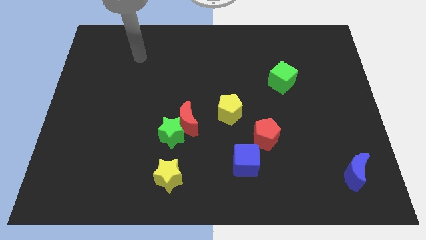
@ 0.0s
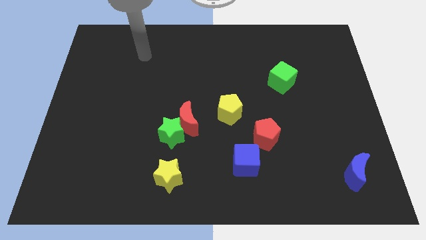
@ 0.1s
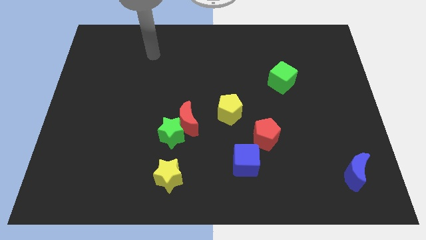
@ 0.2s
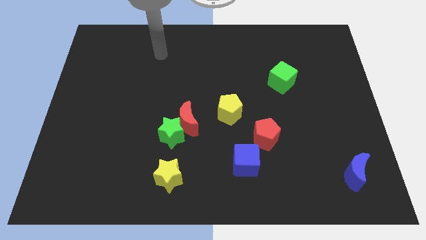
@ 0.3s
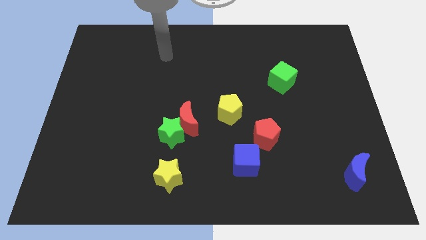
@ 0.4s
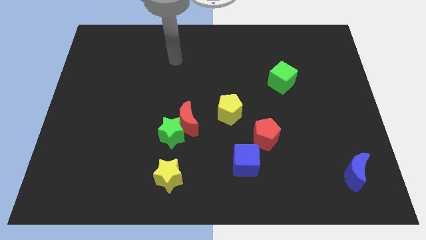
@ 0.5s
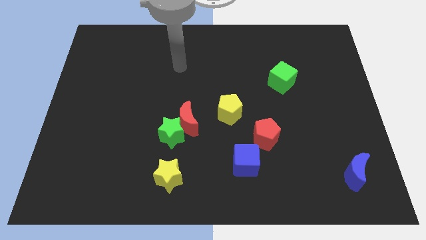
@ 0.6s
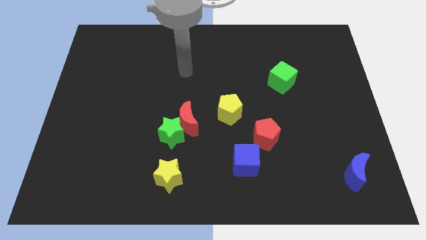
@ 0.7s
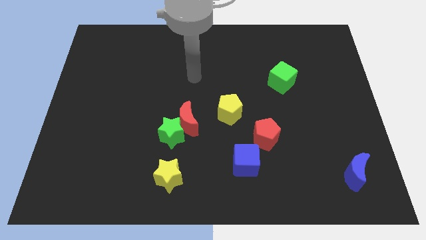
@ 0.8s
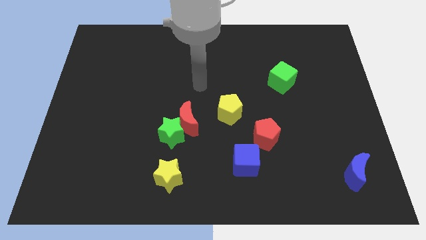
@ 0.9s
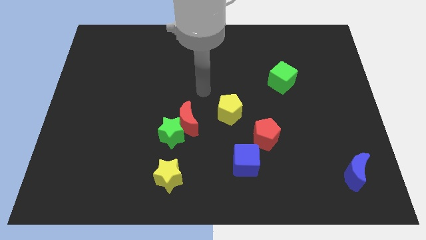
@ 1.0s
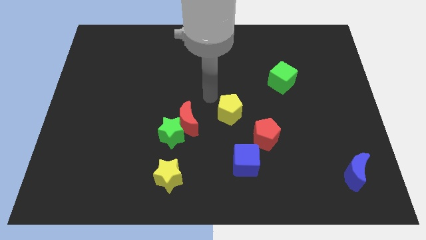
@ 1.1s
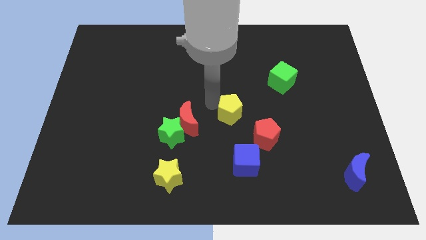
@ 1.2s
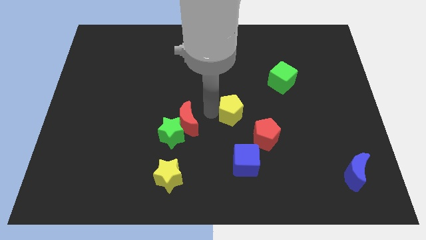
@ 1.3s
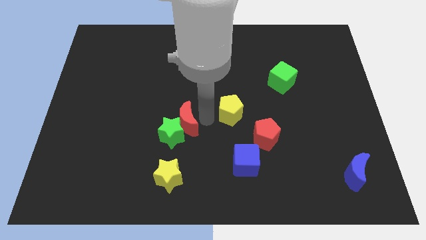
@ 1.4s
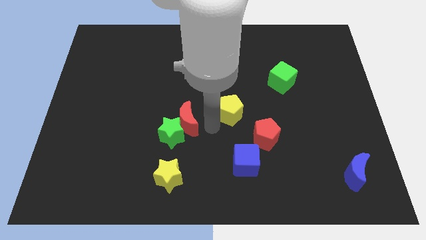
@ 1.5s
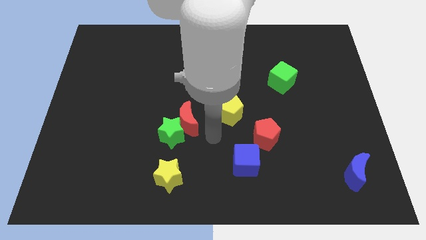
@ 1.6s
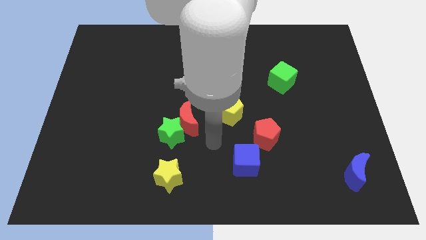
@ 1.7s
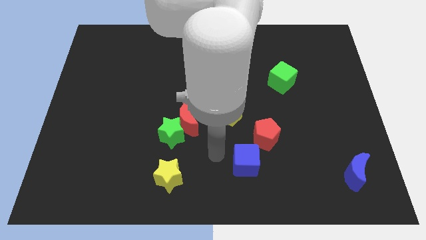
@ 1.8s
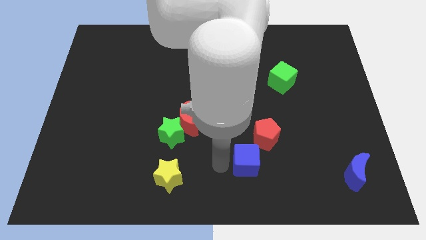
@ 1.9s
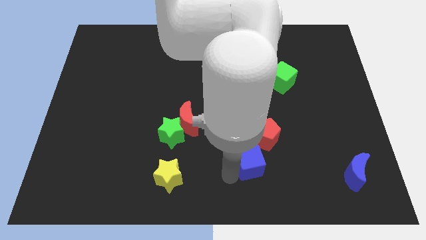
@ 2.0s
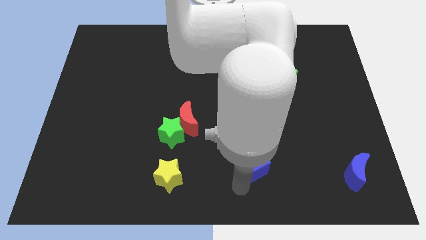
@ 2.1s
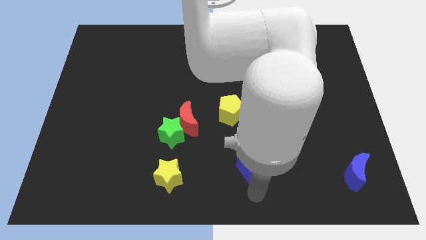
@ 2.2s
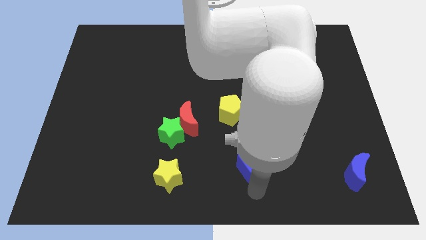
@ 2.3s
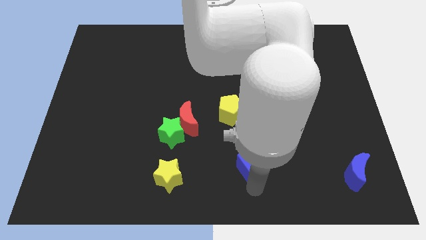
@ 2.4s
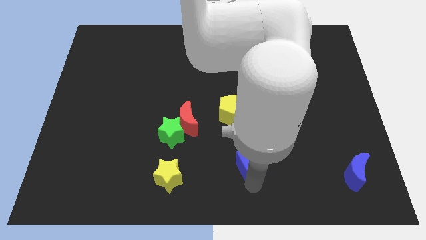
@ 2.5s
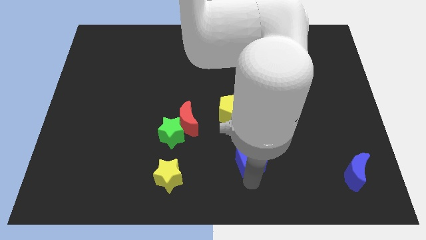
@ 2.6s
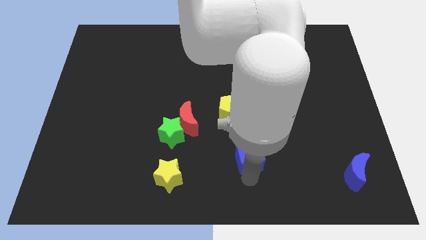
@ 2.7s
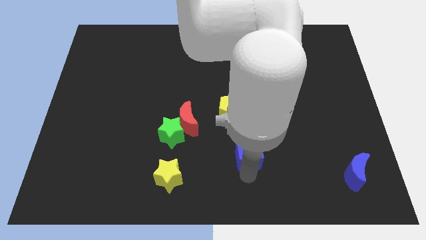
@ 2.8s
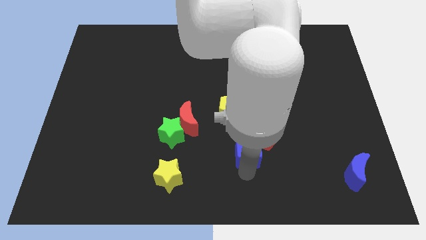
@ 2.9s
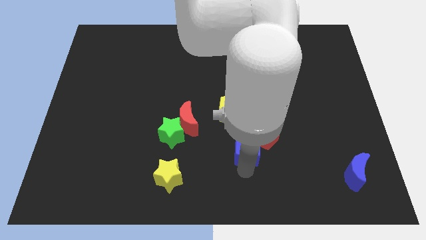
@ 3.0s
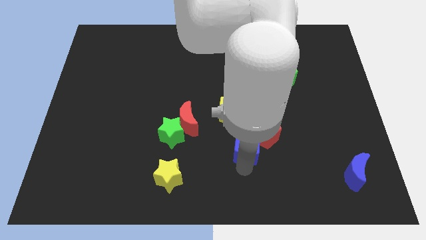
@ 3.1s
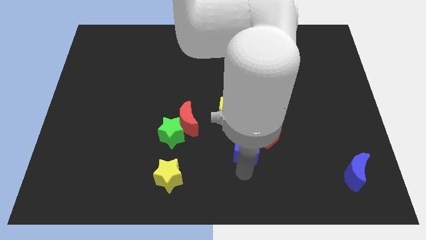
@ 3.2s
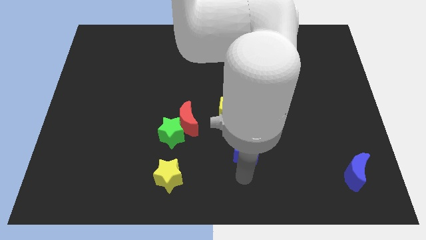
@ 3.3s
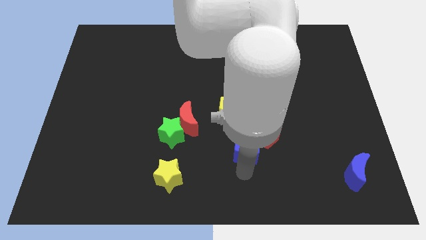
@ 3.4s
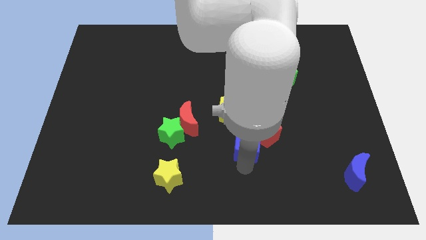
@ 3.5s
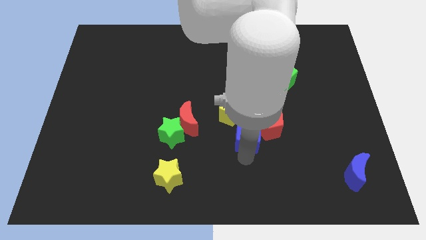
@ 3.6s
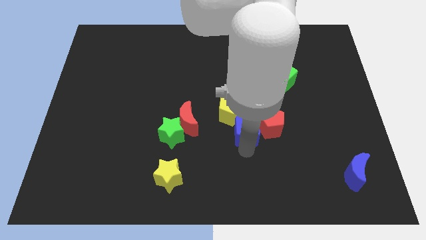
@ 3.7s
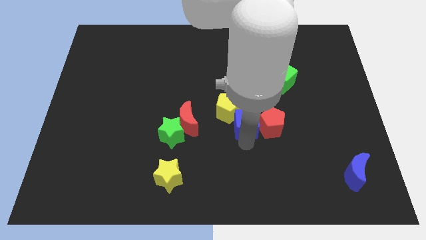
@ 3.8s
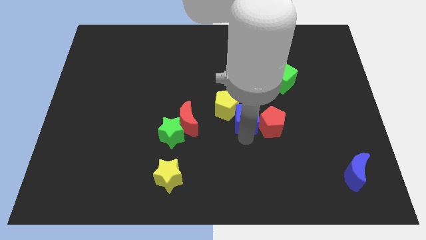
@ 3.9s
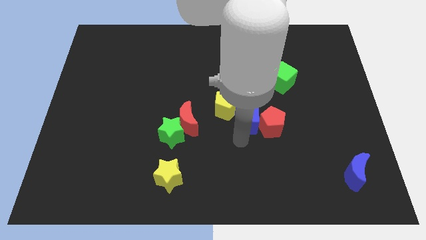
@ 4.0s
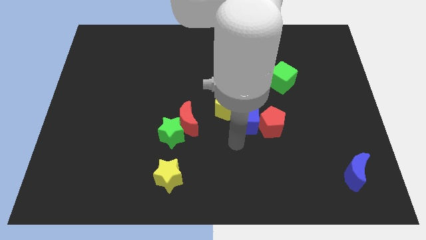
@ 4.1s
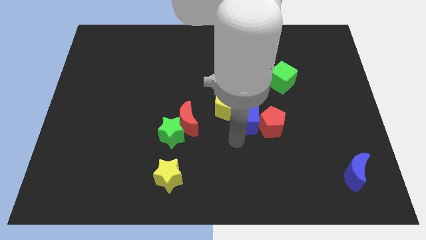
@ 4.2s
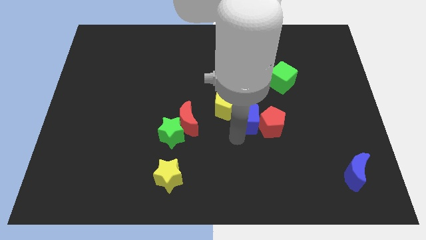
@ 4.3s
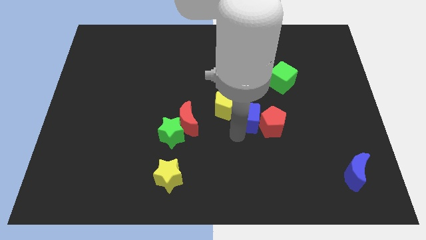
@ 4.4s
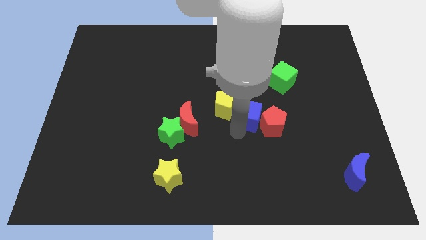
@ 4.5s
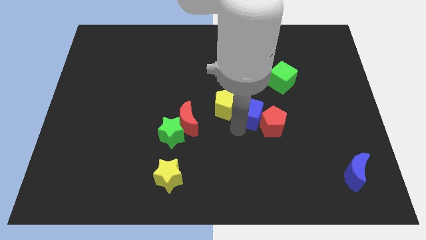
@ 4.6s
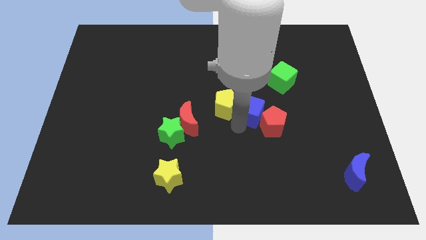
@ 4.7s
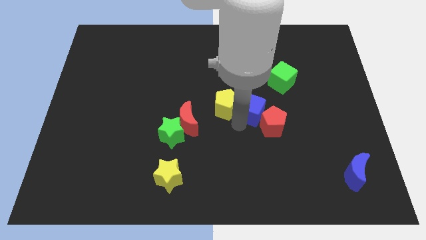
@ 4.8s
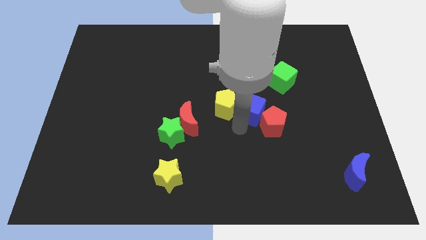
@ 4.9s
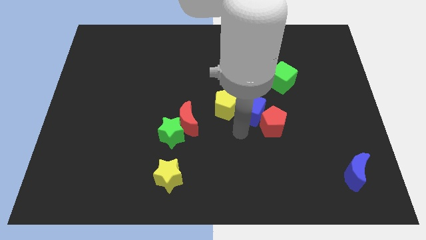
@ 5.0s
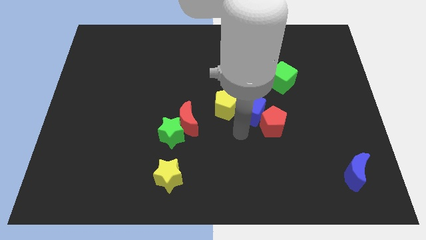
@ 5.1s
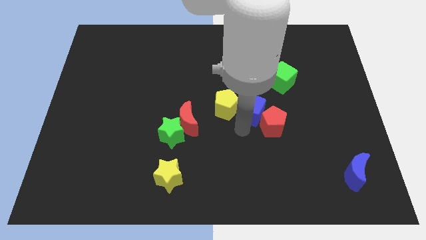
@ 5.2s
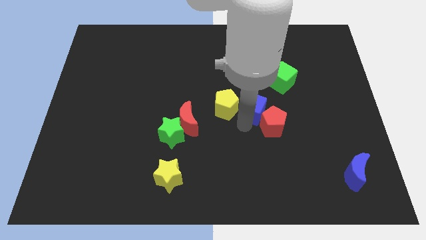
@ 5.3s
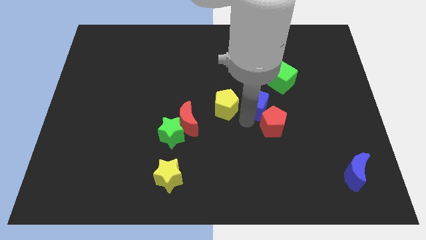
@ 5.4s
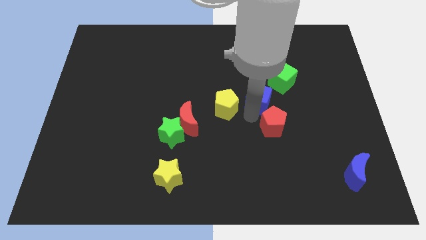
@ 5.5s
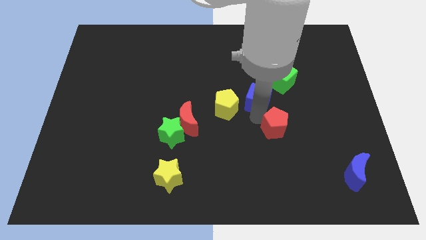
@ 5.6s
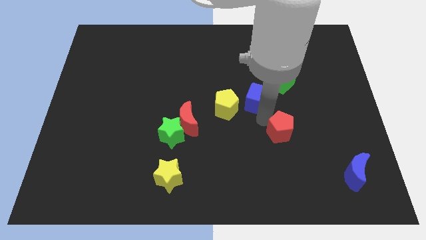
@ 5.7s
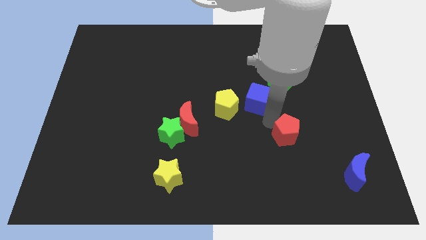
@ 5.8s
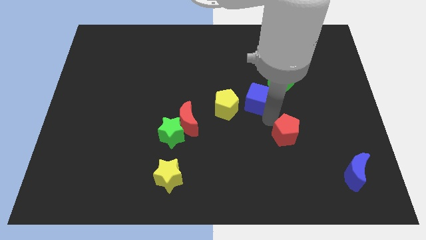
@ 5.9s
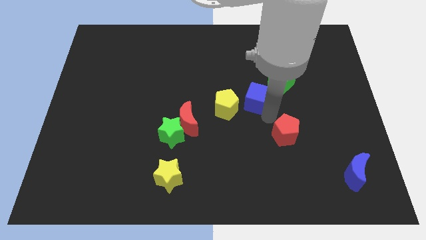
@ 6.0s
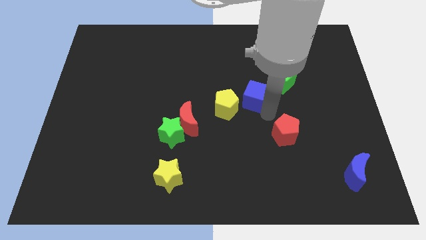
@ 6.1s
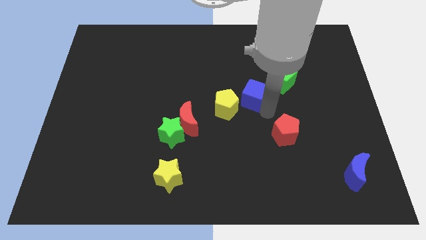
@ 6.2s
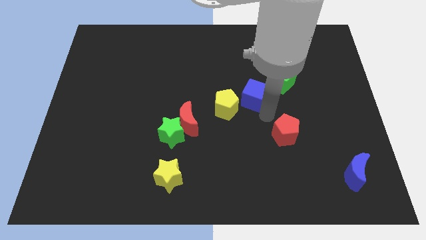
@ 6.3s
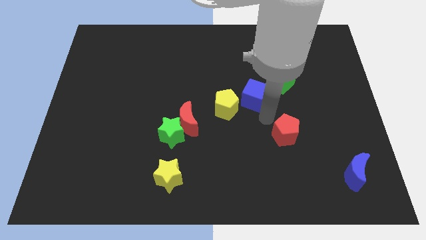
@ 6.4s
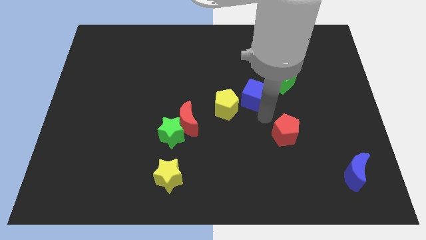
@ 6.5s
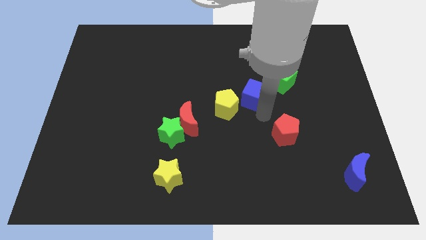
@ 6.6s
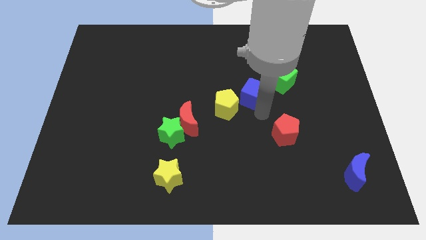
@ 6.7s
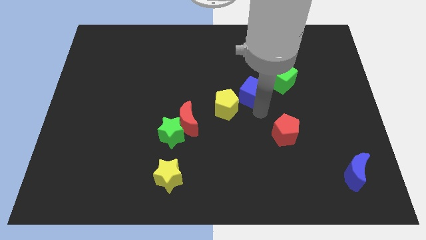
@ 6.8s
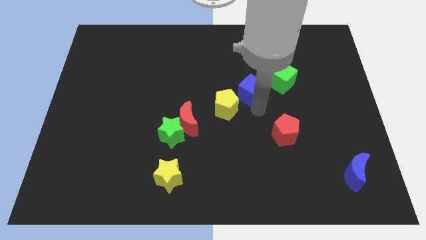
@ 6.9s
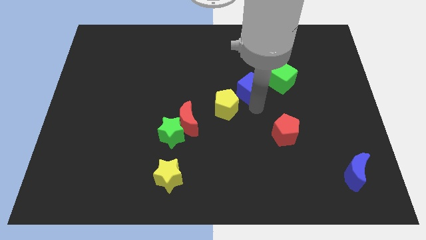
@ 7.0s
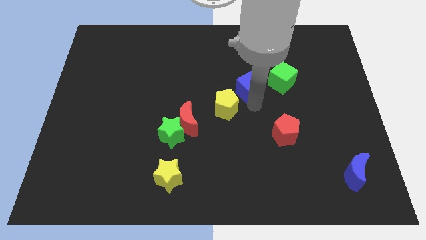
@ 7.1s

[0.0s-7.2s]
push the blue cube up

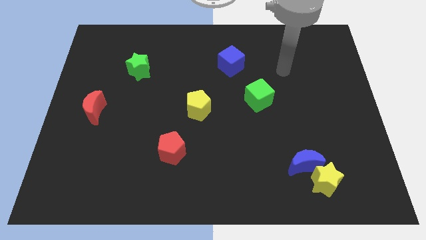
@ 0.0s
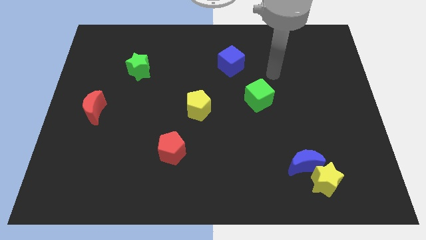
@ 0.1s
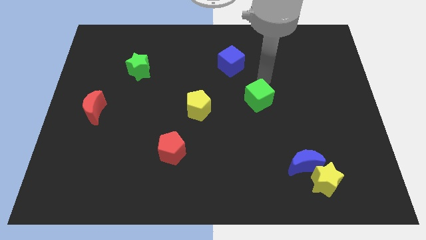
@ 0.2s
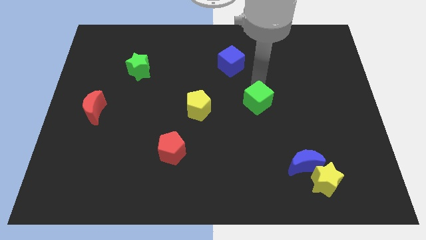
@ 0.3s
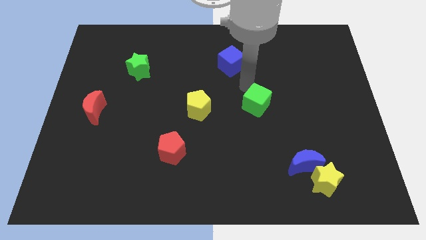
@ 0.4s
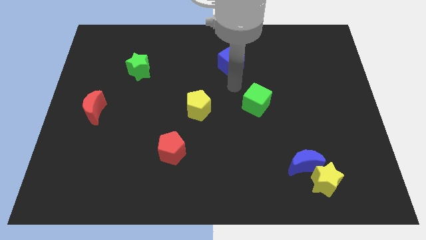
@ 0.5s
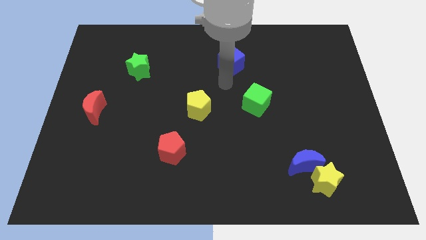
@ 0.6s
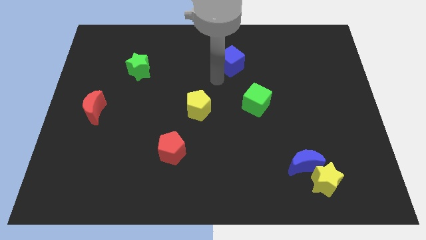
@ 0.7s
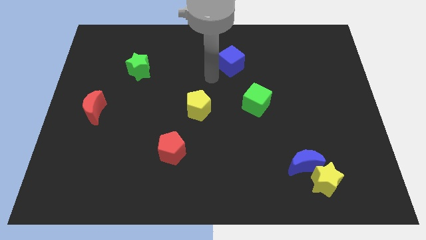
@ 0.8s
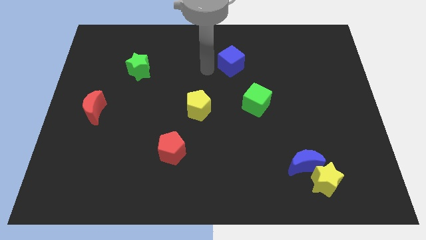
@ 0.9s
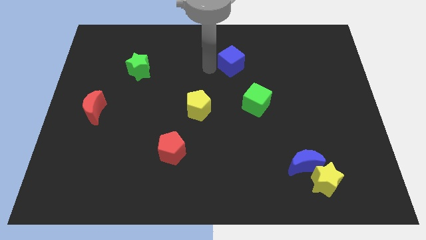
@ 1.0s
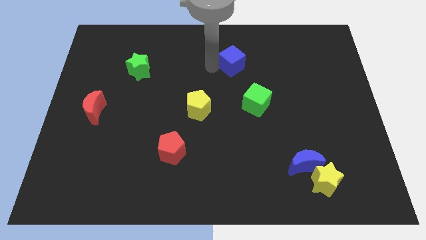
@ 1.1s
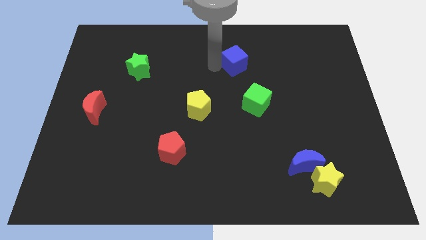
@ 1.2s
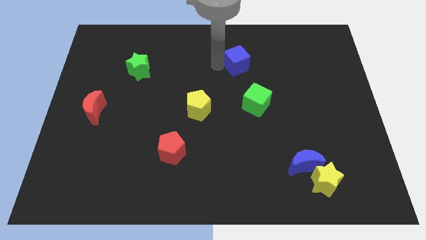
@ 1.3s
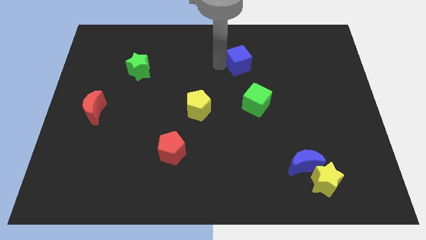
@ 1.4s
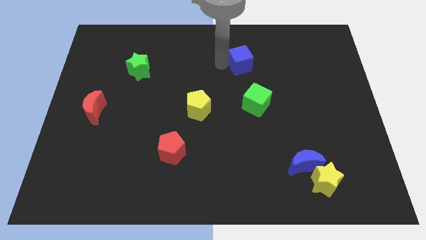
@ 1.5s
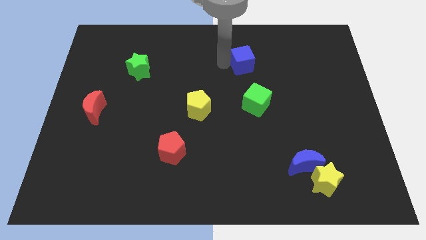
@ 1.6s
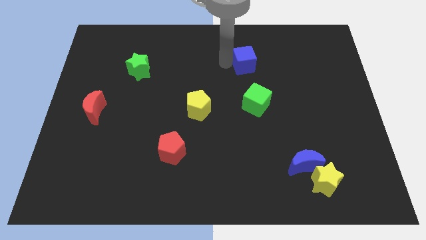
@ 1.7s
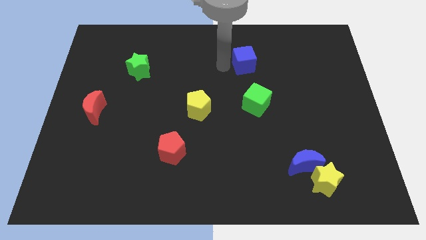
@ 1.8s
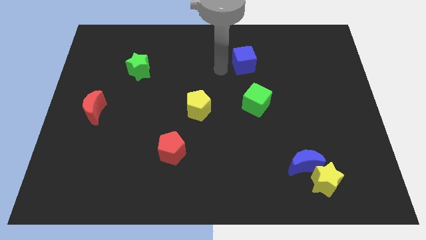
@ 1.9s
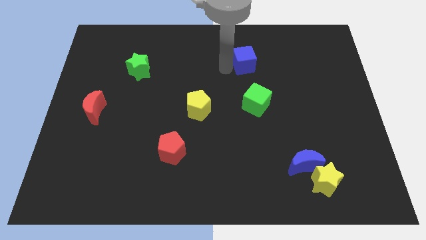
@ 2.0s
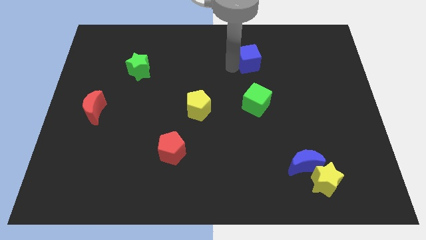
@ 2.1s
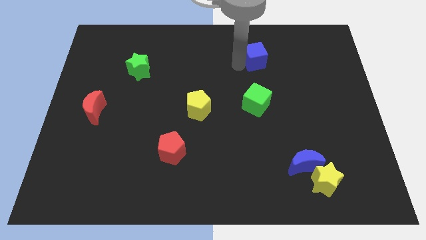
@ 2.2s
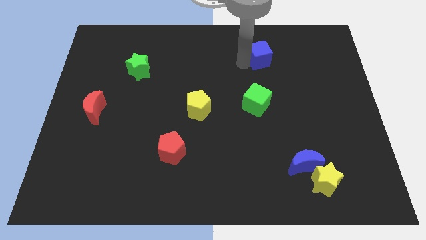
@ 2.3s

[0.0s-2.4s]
slightly push the blue cube to the right
